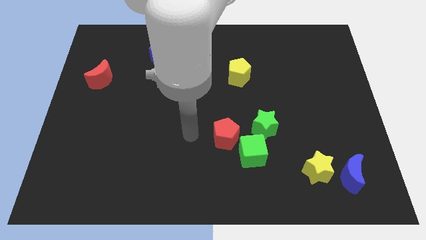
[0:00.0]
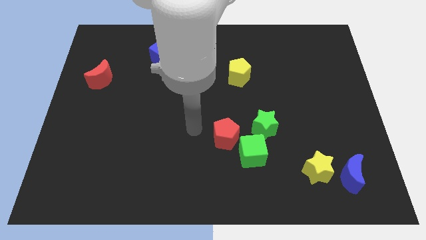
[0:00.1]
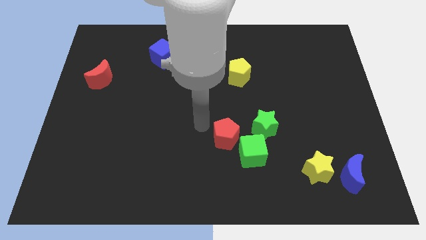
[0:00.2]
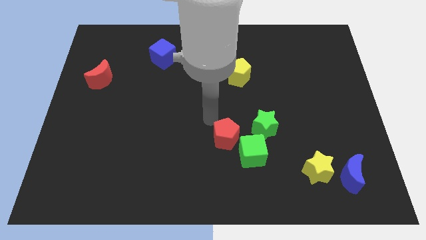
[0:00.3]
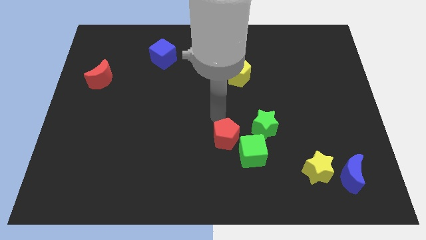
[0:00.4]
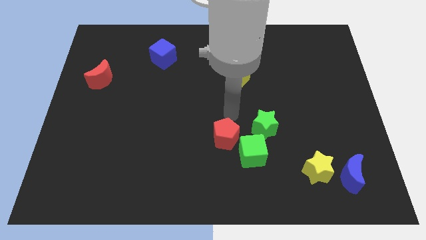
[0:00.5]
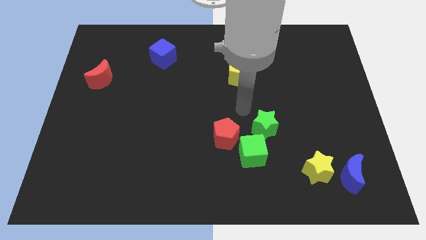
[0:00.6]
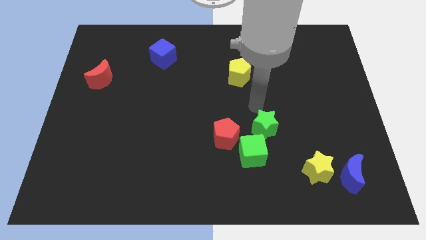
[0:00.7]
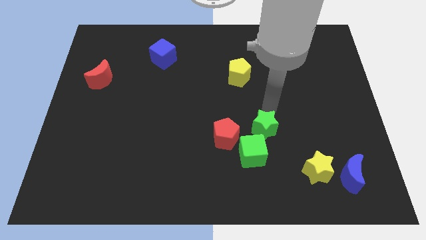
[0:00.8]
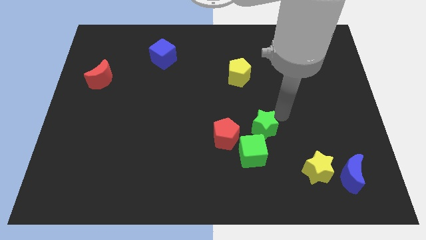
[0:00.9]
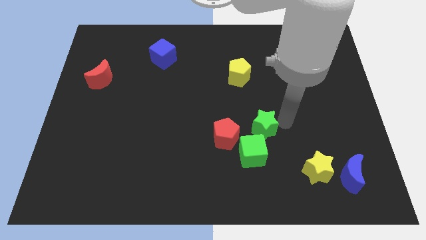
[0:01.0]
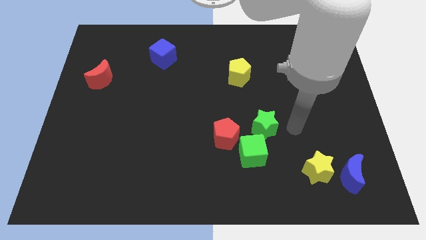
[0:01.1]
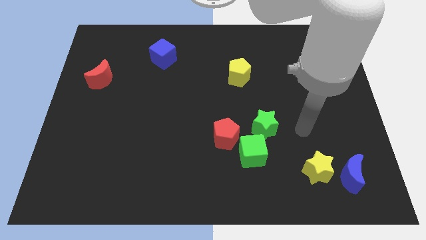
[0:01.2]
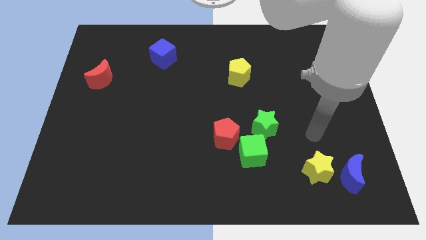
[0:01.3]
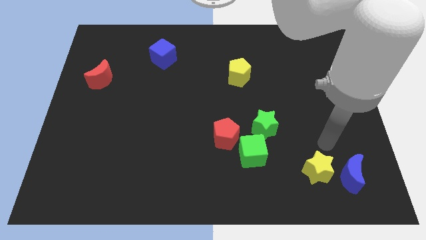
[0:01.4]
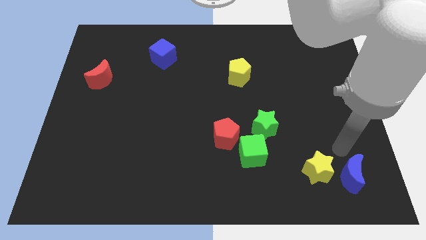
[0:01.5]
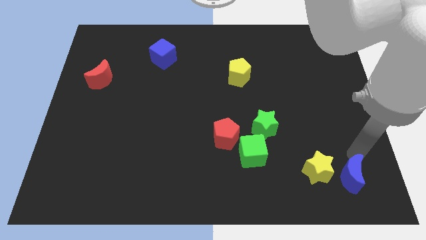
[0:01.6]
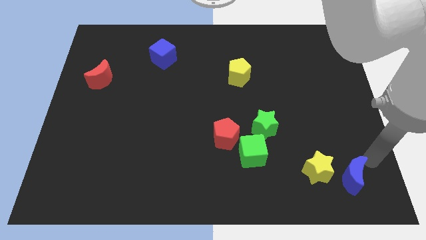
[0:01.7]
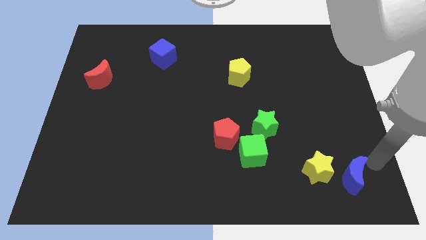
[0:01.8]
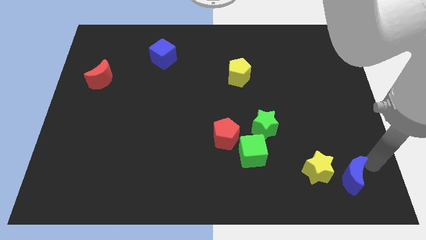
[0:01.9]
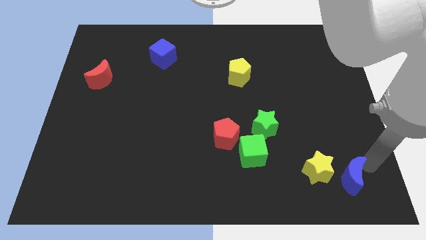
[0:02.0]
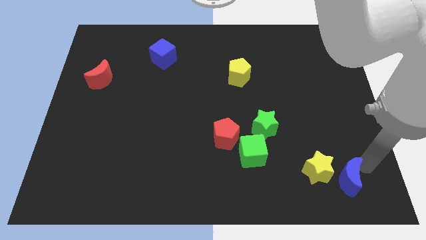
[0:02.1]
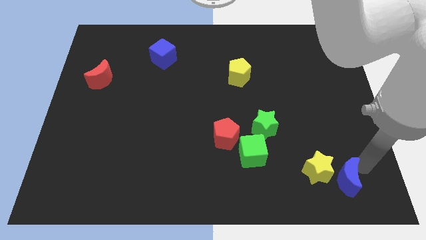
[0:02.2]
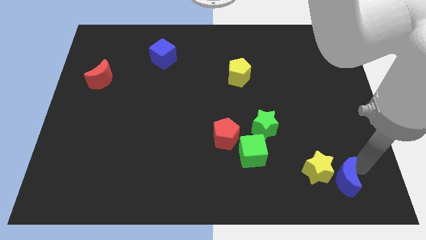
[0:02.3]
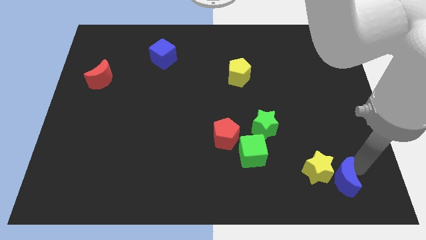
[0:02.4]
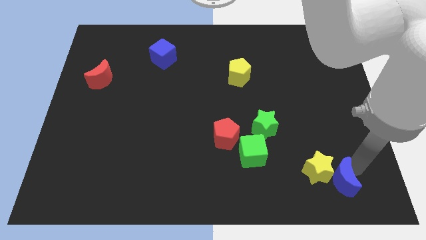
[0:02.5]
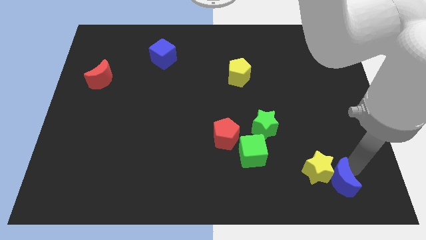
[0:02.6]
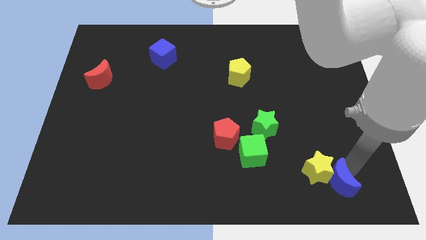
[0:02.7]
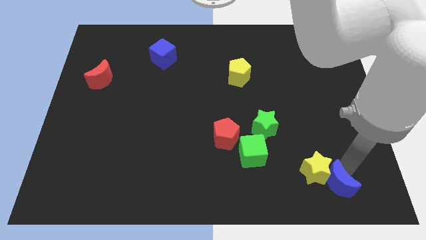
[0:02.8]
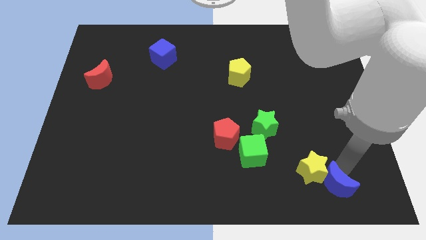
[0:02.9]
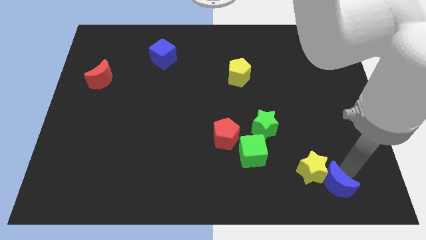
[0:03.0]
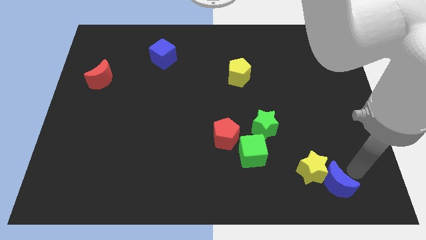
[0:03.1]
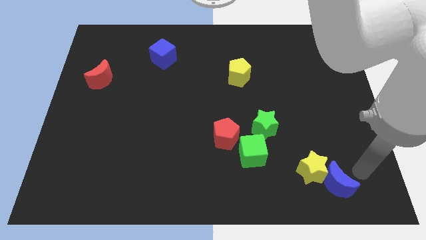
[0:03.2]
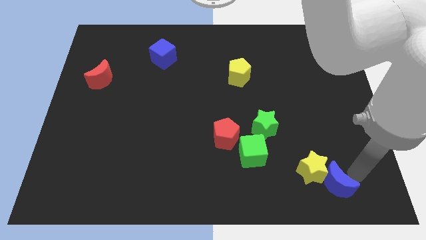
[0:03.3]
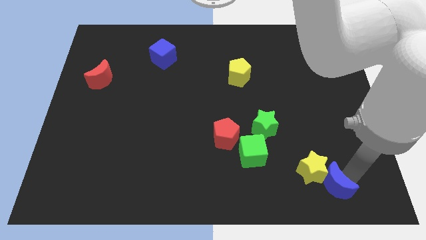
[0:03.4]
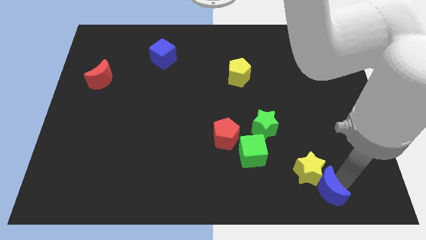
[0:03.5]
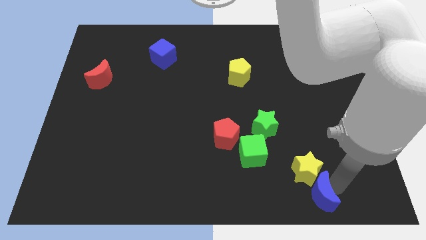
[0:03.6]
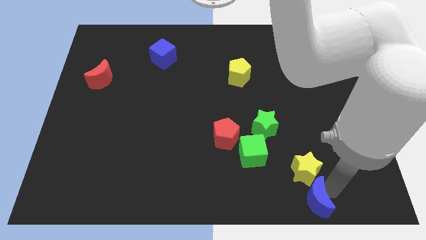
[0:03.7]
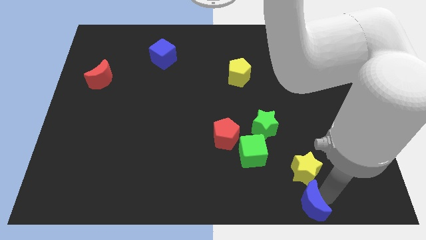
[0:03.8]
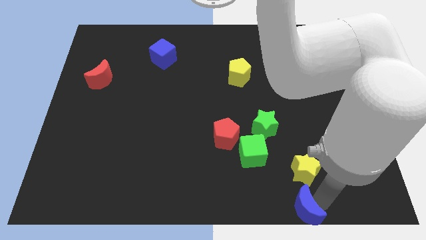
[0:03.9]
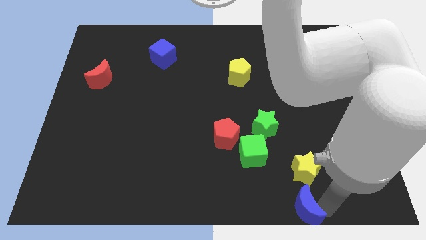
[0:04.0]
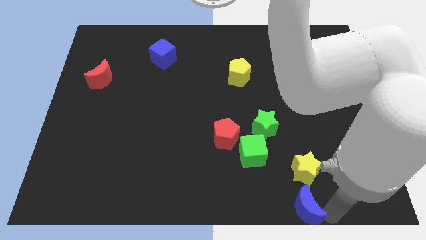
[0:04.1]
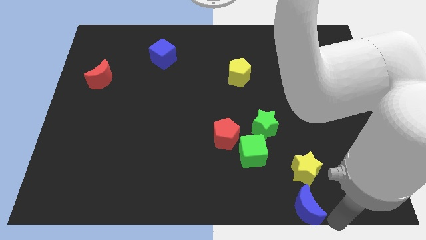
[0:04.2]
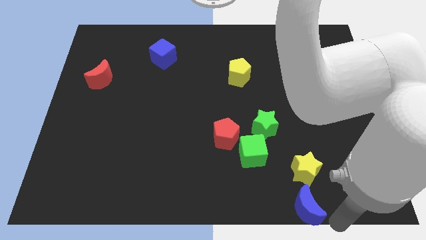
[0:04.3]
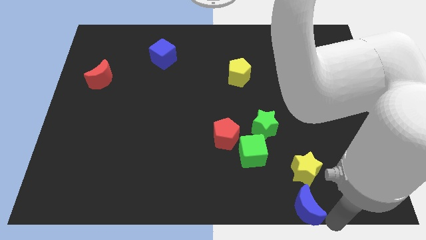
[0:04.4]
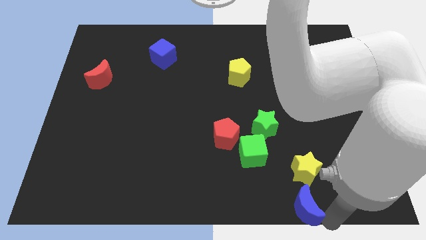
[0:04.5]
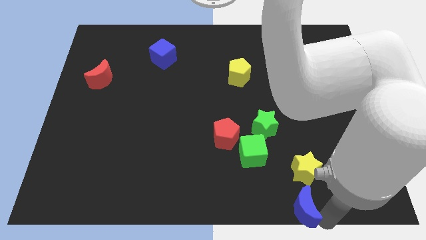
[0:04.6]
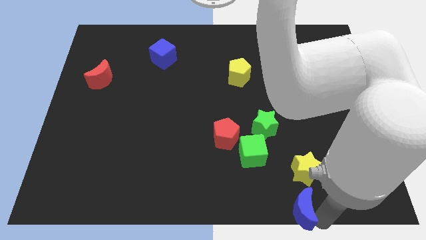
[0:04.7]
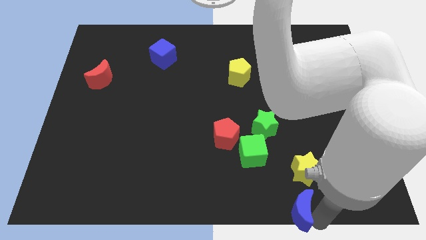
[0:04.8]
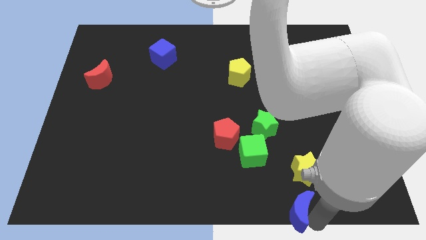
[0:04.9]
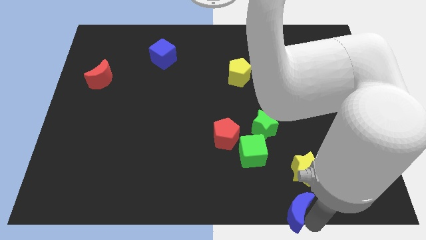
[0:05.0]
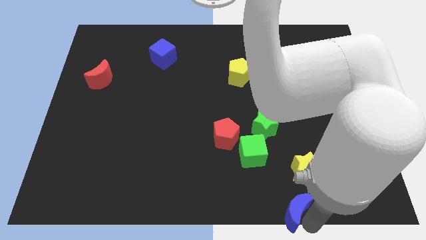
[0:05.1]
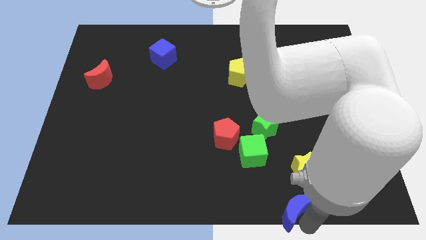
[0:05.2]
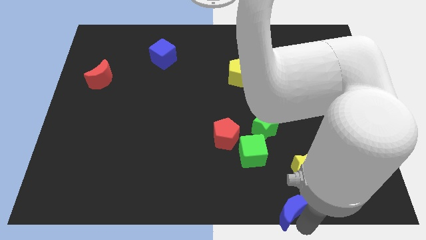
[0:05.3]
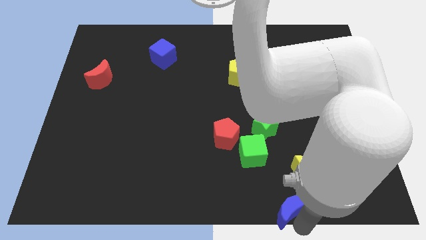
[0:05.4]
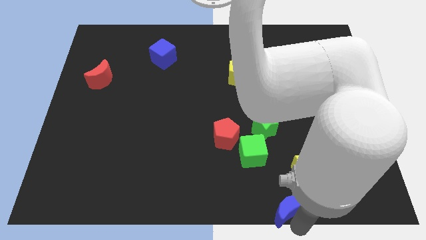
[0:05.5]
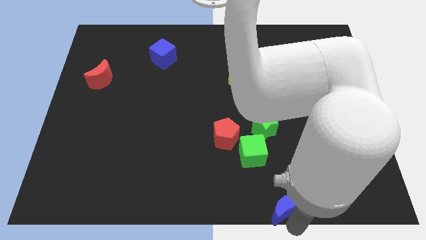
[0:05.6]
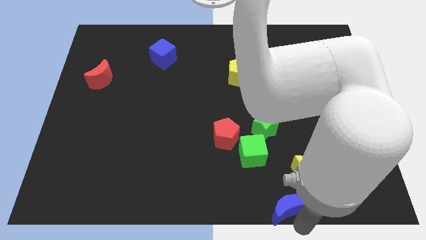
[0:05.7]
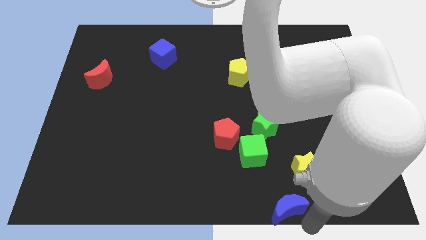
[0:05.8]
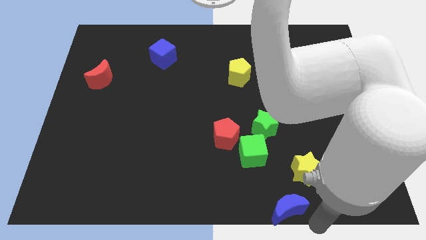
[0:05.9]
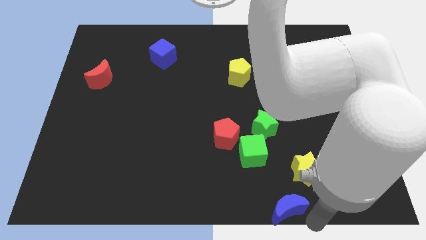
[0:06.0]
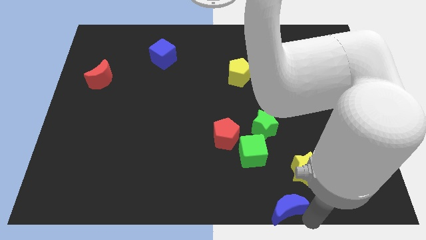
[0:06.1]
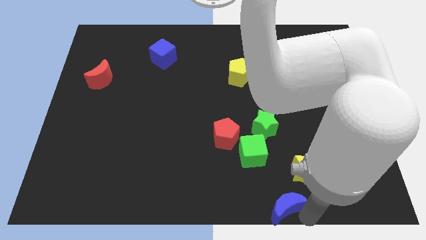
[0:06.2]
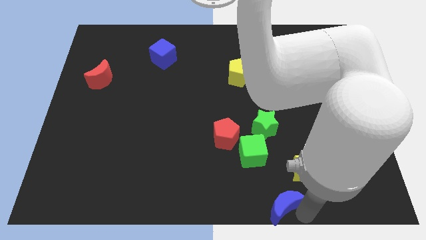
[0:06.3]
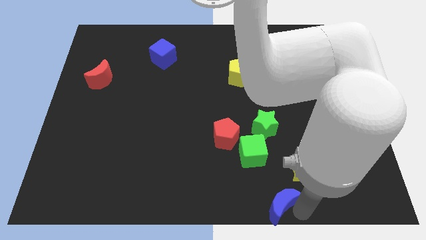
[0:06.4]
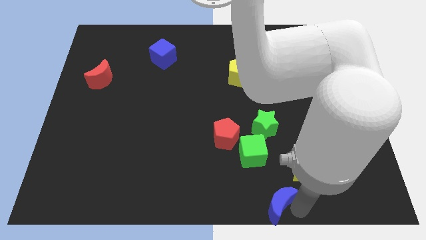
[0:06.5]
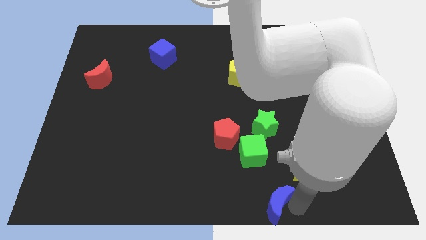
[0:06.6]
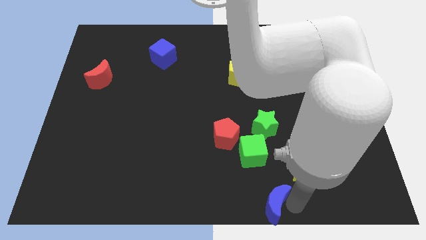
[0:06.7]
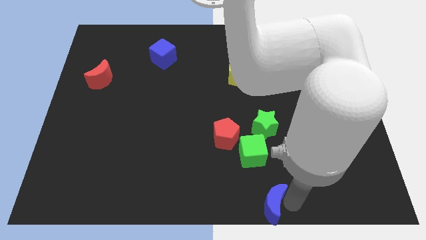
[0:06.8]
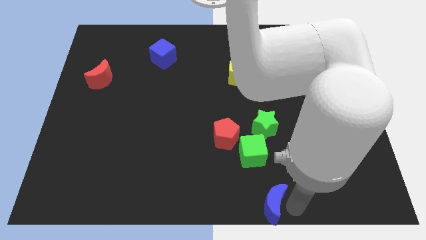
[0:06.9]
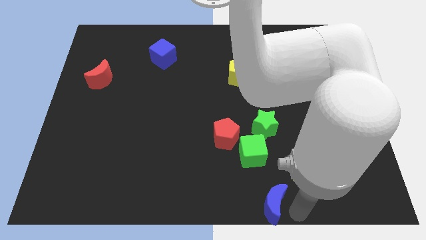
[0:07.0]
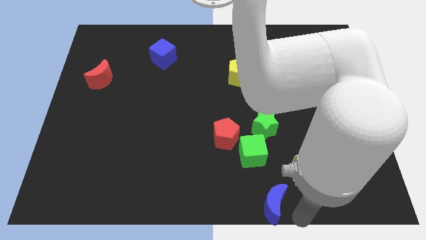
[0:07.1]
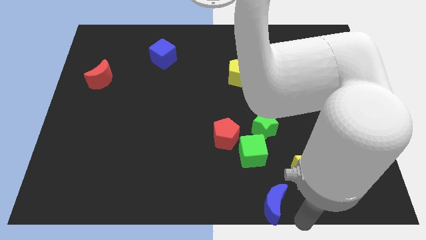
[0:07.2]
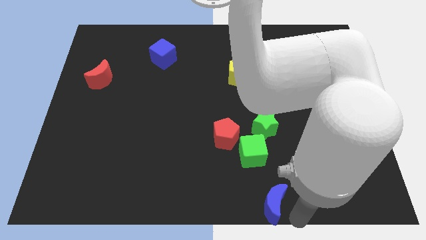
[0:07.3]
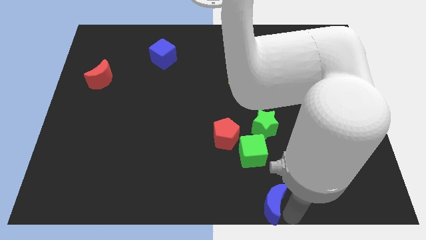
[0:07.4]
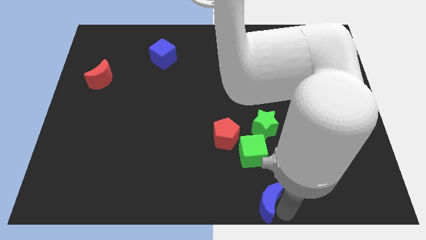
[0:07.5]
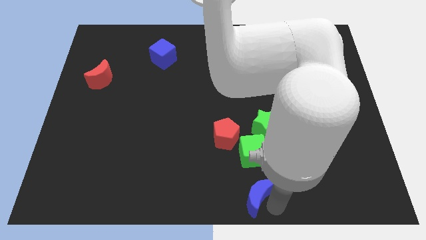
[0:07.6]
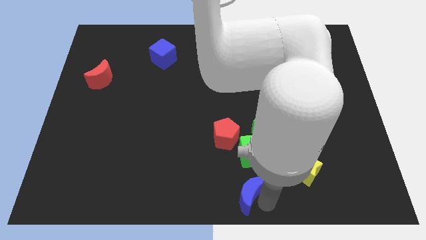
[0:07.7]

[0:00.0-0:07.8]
slide the blue moon to the bottom of the red pentagon
